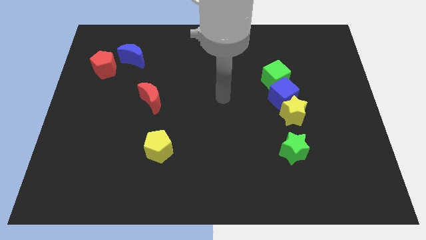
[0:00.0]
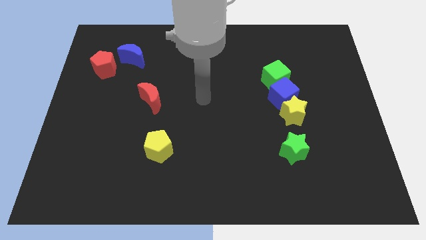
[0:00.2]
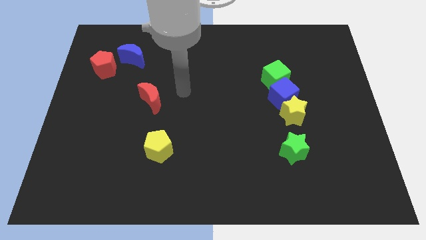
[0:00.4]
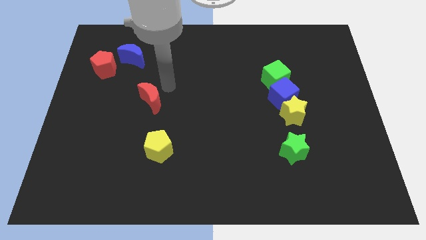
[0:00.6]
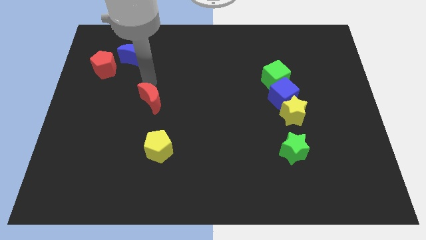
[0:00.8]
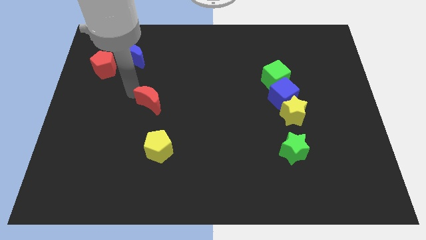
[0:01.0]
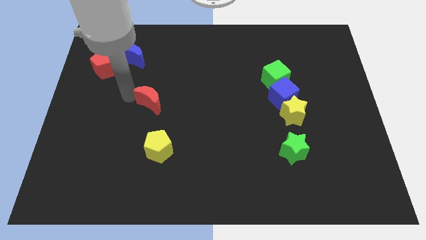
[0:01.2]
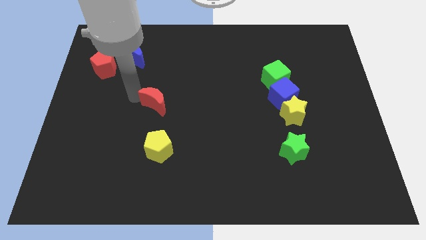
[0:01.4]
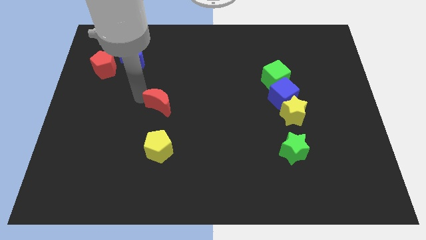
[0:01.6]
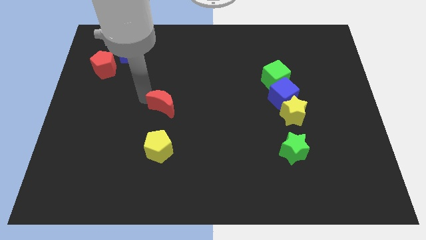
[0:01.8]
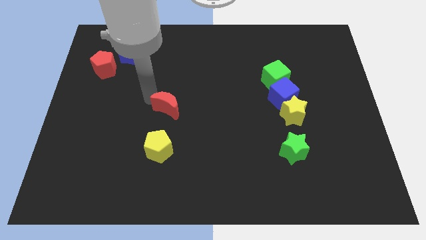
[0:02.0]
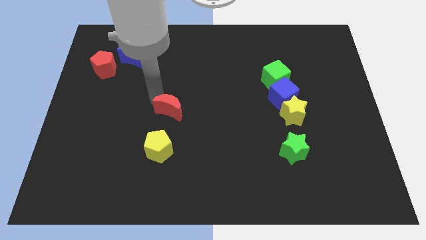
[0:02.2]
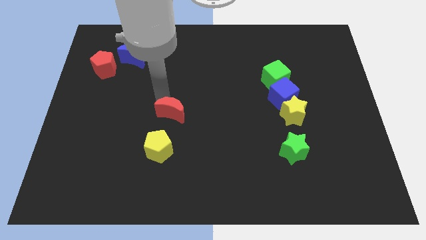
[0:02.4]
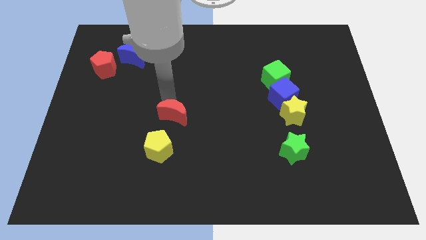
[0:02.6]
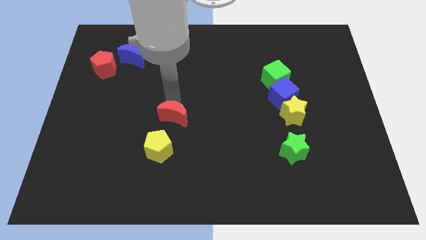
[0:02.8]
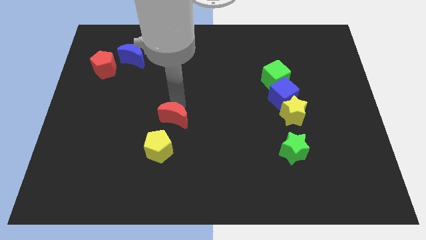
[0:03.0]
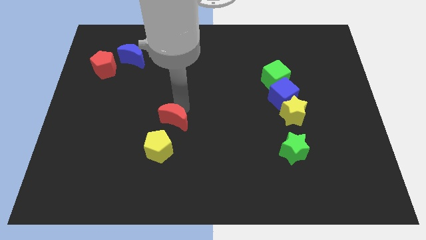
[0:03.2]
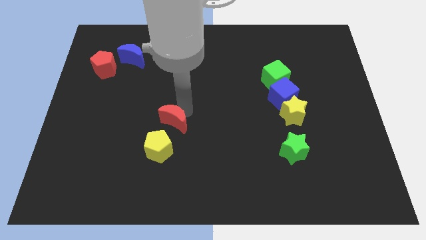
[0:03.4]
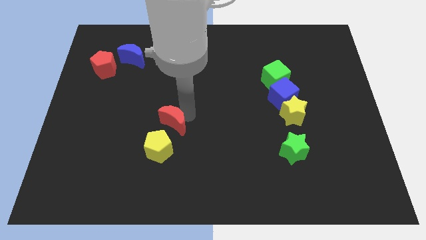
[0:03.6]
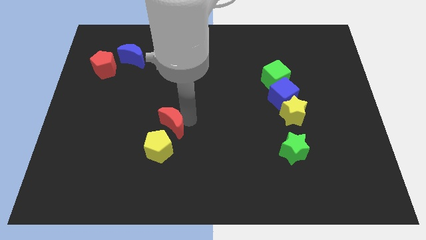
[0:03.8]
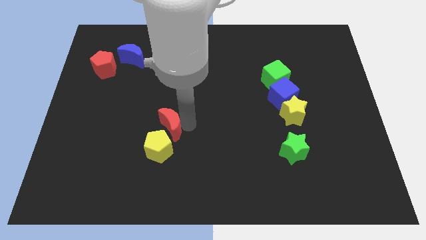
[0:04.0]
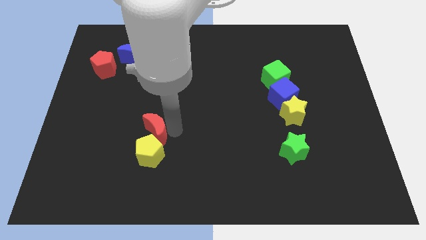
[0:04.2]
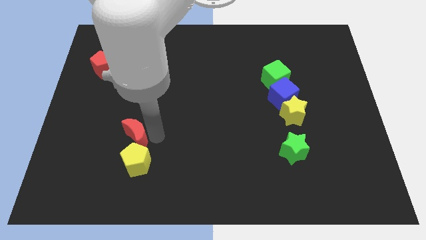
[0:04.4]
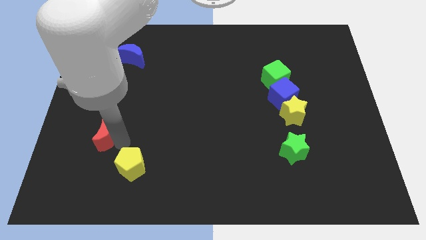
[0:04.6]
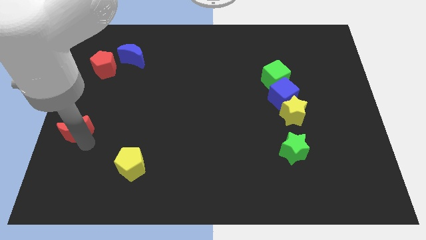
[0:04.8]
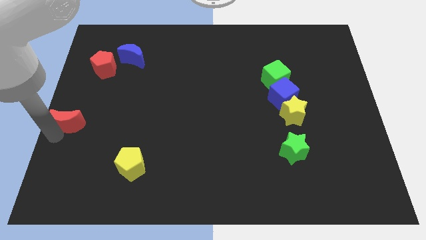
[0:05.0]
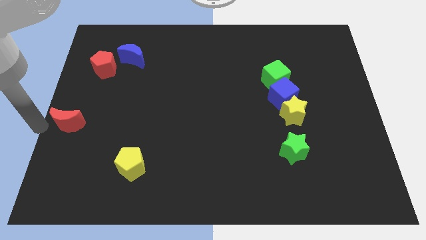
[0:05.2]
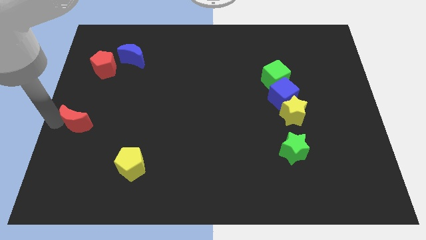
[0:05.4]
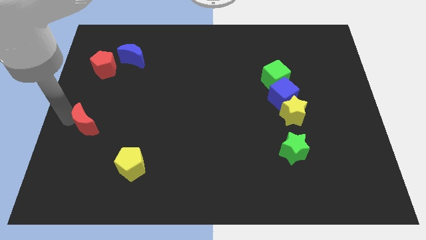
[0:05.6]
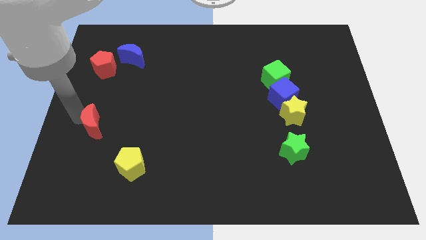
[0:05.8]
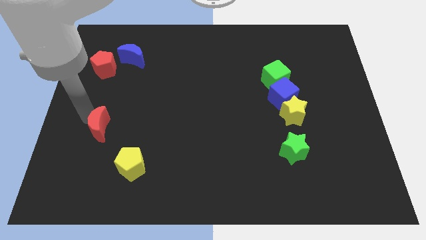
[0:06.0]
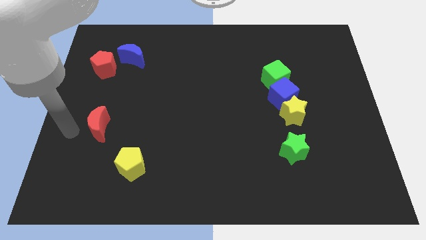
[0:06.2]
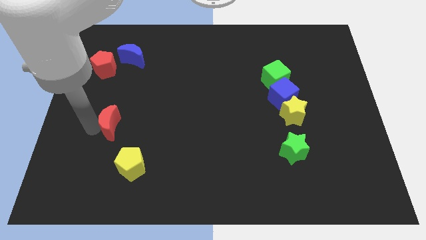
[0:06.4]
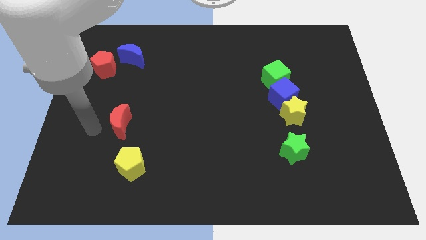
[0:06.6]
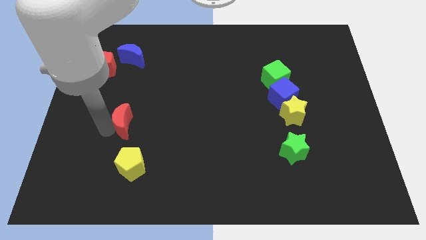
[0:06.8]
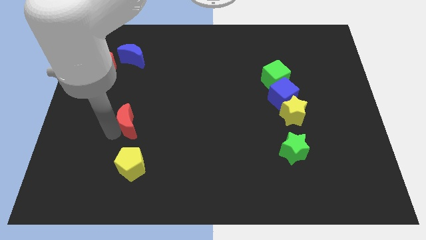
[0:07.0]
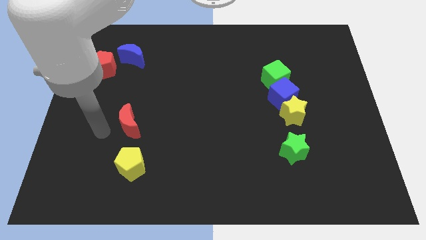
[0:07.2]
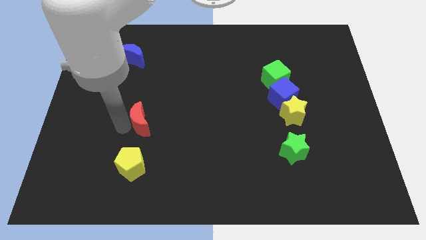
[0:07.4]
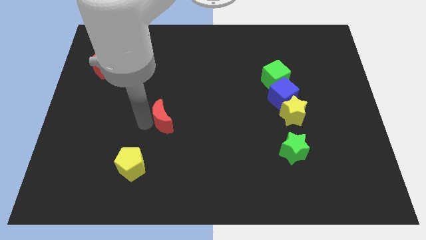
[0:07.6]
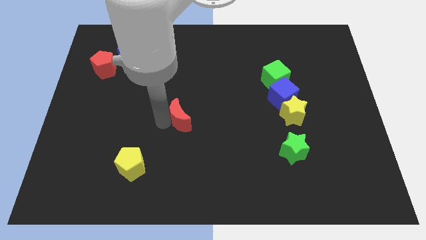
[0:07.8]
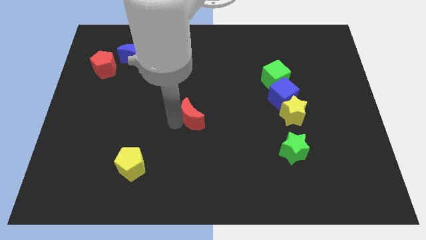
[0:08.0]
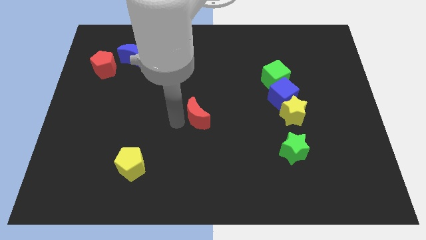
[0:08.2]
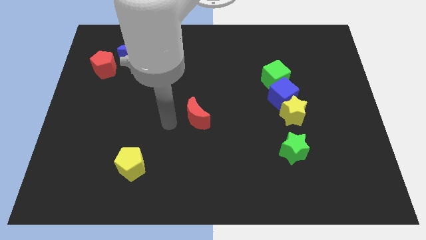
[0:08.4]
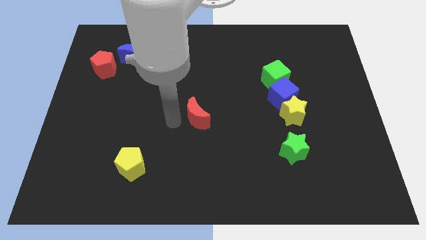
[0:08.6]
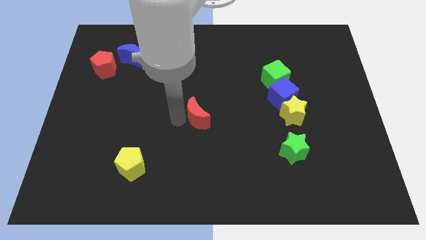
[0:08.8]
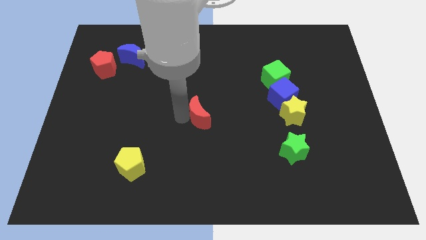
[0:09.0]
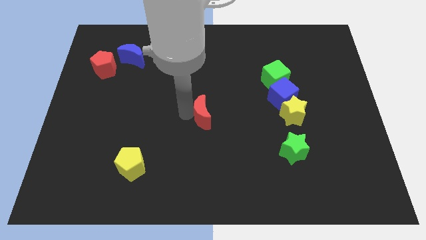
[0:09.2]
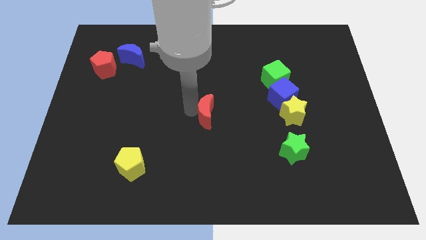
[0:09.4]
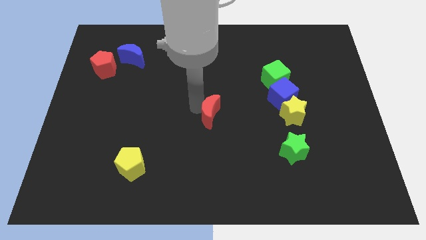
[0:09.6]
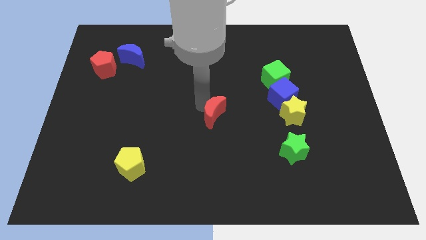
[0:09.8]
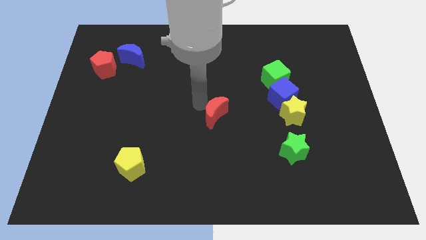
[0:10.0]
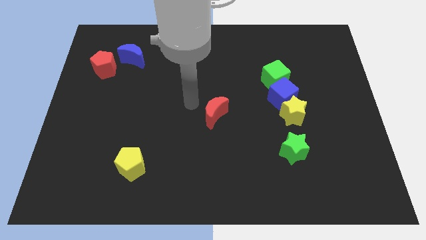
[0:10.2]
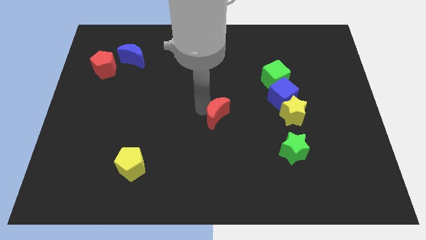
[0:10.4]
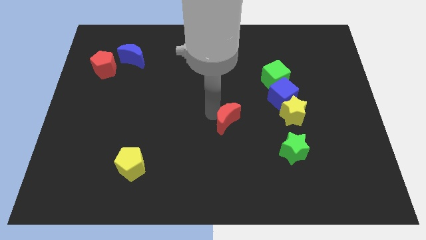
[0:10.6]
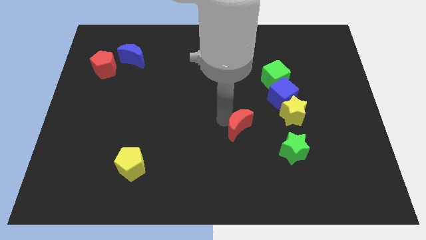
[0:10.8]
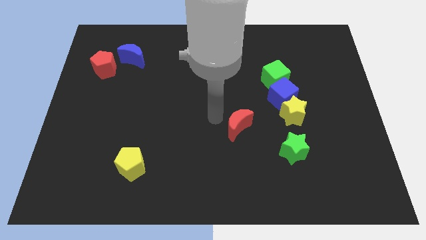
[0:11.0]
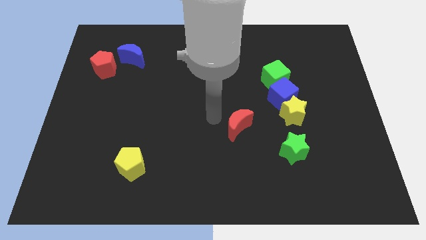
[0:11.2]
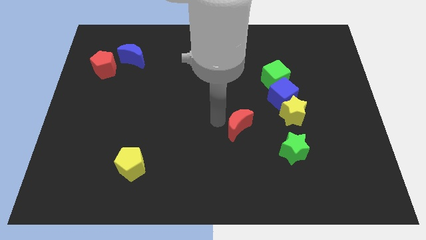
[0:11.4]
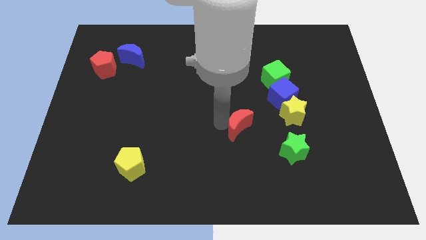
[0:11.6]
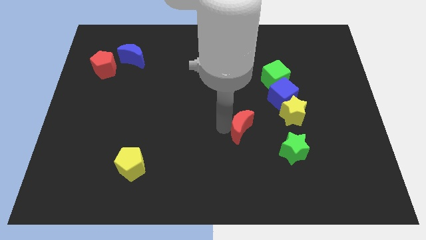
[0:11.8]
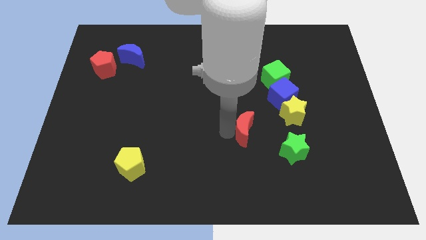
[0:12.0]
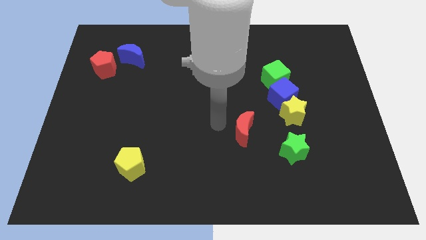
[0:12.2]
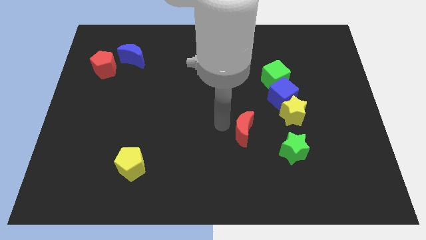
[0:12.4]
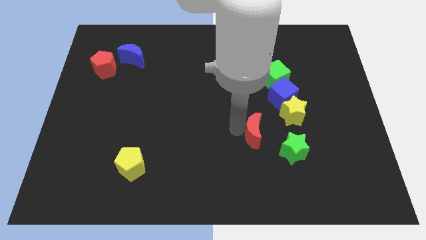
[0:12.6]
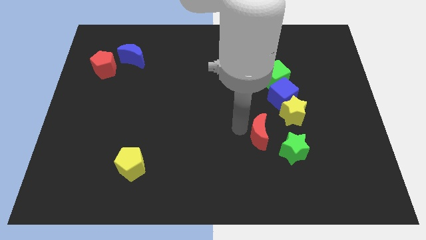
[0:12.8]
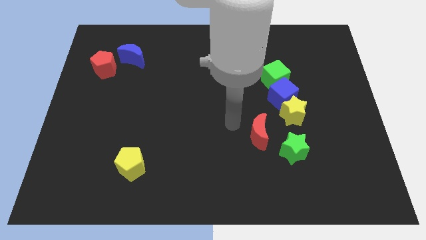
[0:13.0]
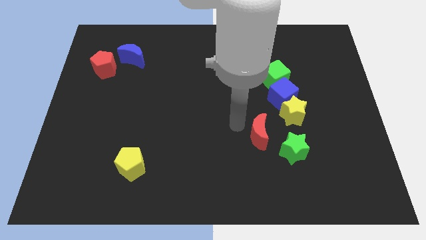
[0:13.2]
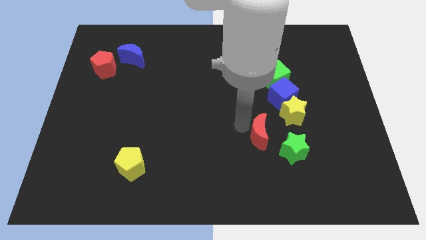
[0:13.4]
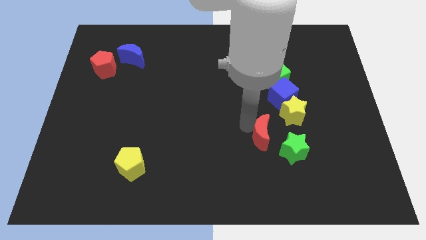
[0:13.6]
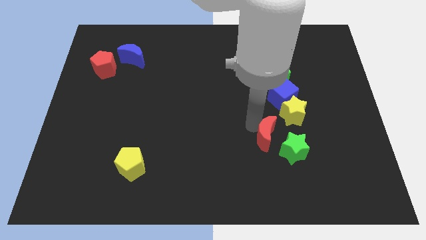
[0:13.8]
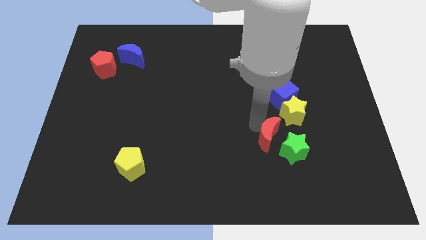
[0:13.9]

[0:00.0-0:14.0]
slide the red moon next to the green star
